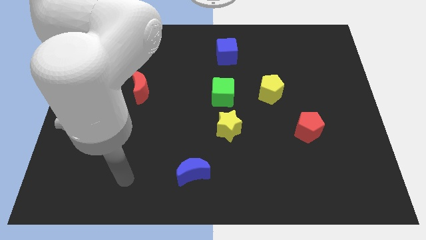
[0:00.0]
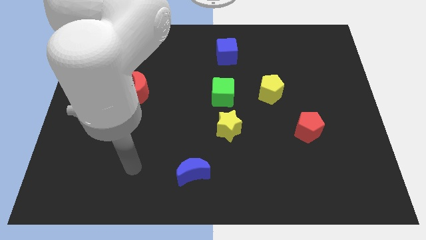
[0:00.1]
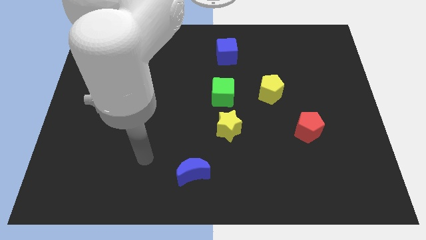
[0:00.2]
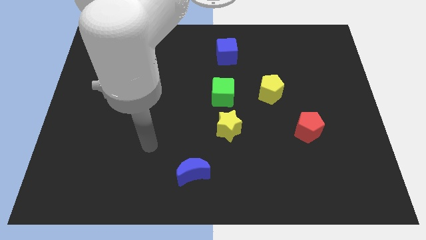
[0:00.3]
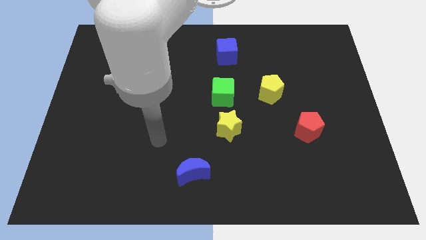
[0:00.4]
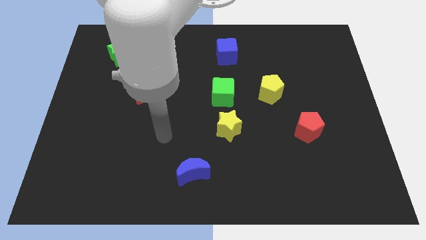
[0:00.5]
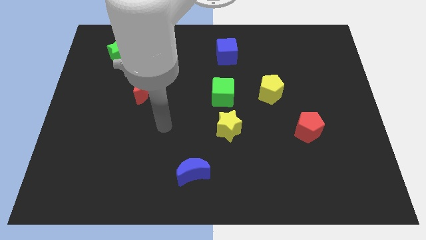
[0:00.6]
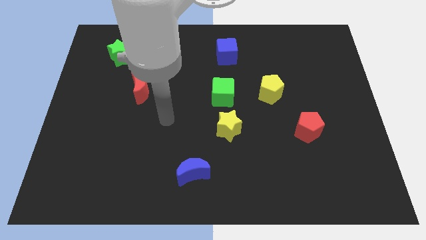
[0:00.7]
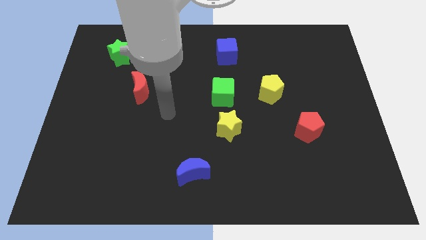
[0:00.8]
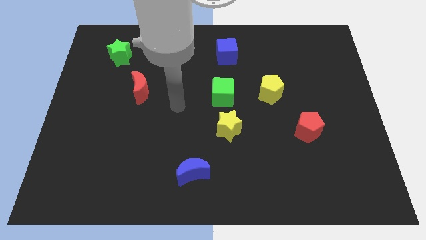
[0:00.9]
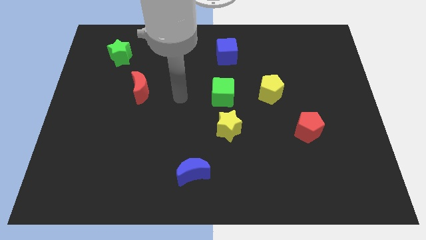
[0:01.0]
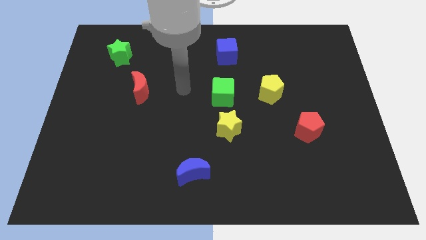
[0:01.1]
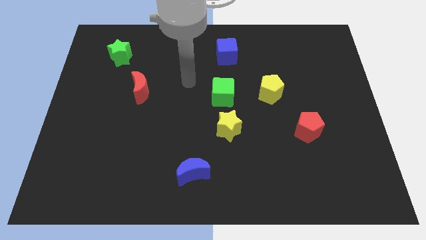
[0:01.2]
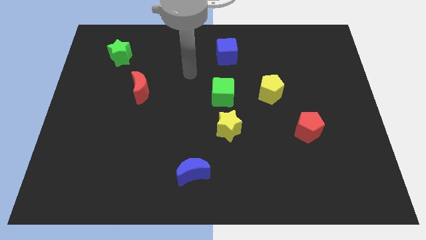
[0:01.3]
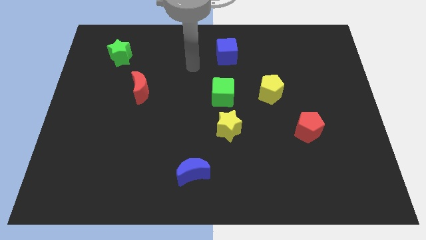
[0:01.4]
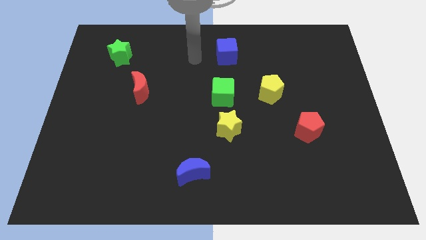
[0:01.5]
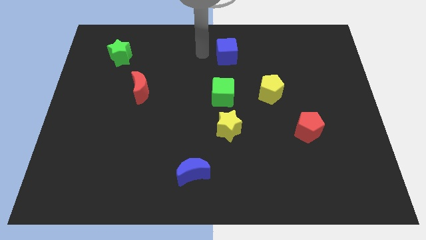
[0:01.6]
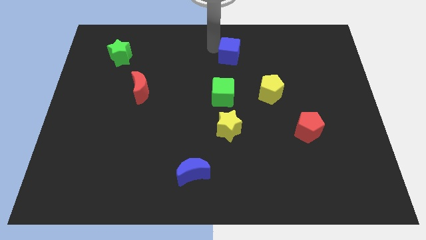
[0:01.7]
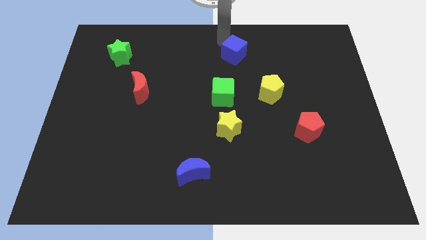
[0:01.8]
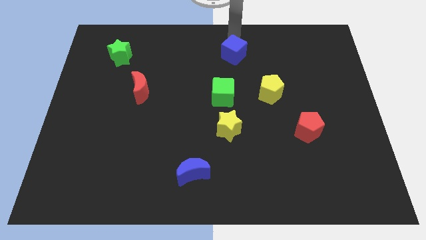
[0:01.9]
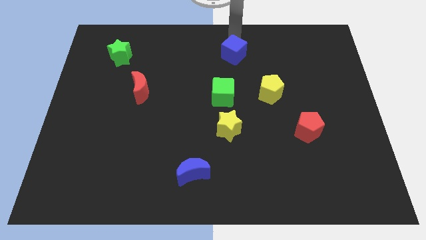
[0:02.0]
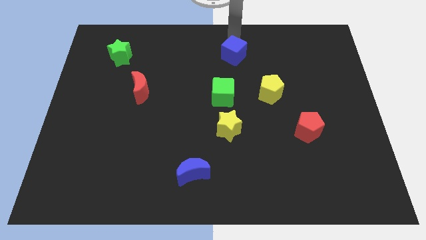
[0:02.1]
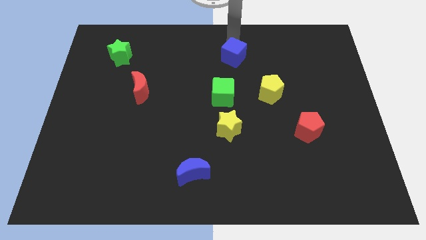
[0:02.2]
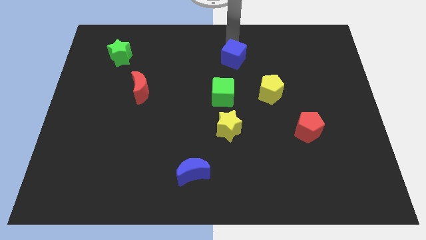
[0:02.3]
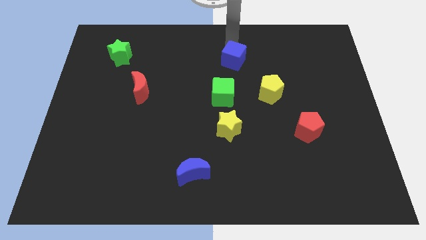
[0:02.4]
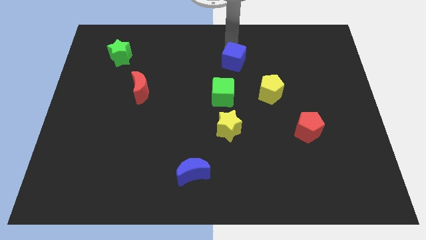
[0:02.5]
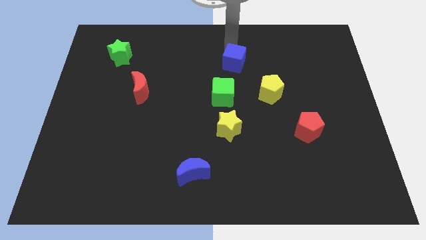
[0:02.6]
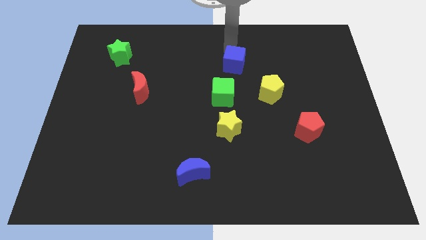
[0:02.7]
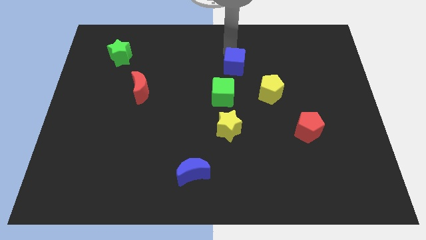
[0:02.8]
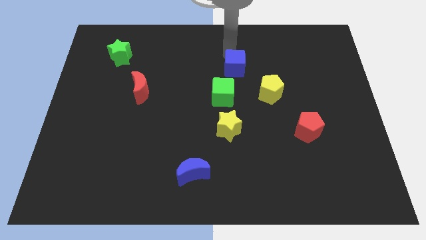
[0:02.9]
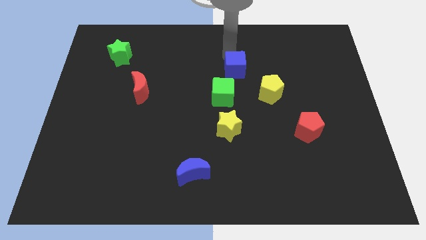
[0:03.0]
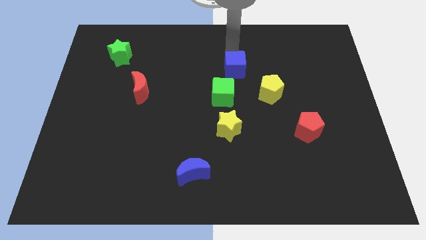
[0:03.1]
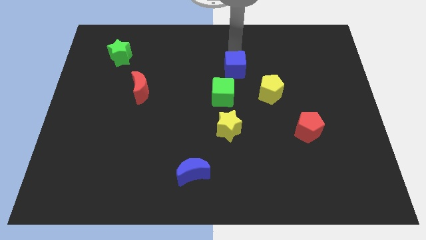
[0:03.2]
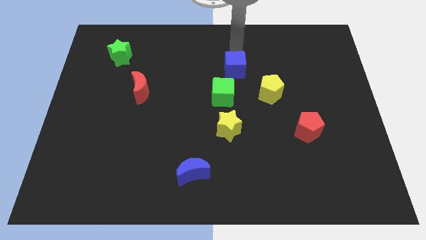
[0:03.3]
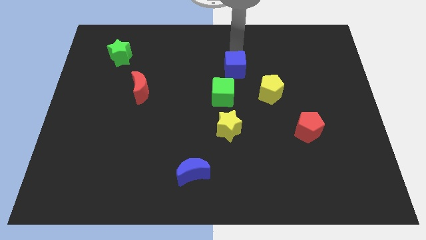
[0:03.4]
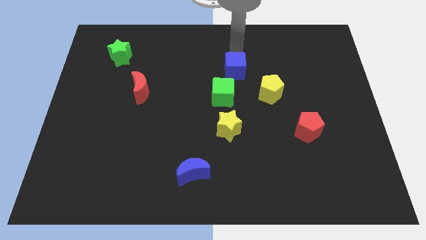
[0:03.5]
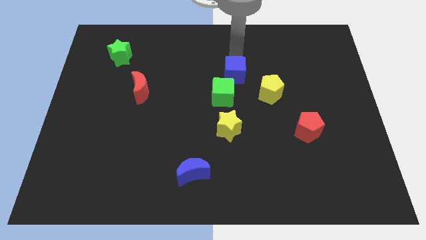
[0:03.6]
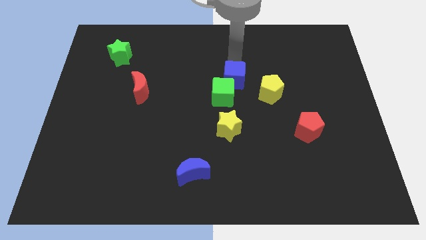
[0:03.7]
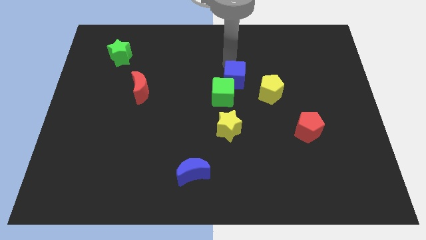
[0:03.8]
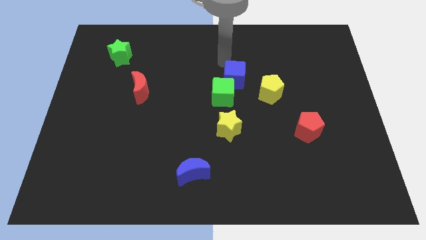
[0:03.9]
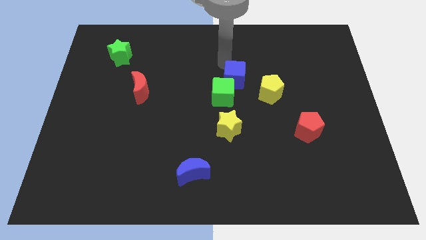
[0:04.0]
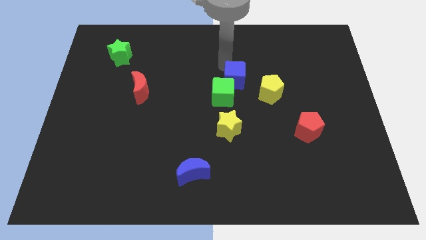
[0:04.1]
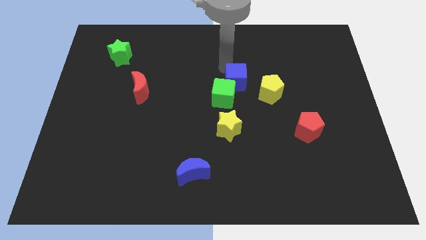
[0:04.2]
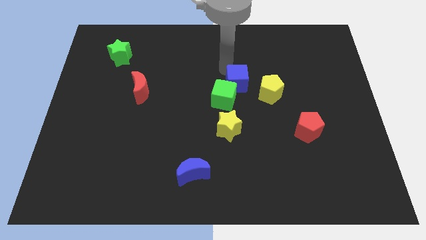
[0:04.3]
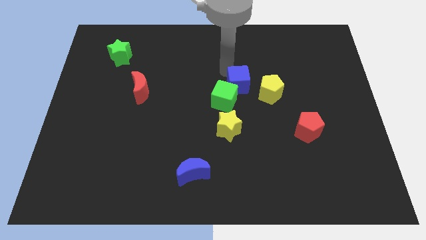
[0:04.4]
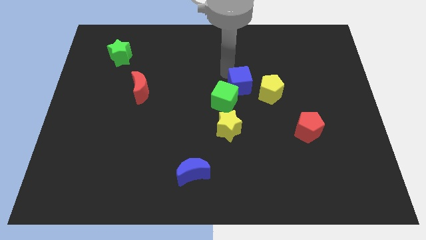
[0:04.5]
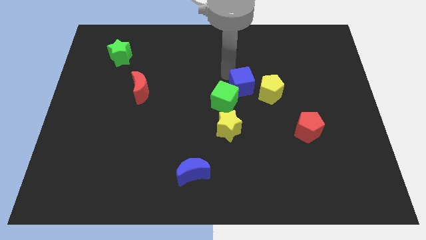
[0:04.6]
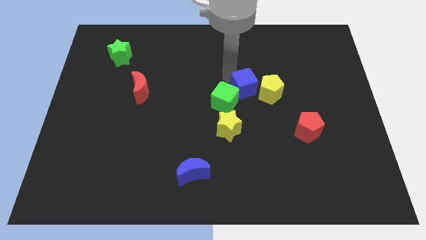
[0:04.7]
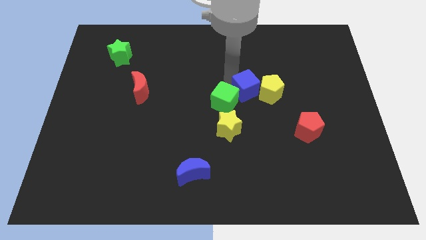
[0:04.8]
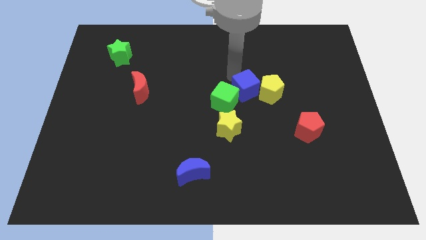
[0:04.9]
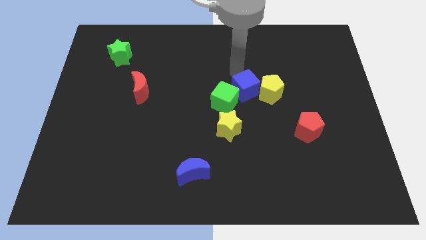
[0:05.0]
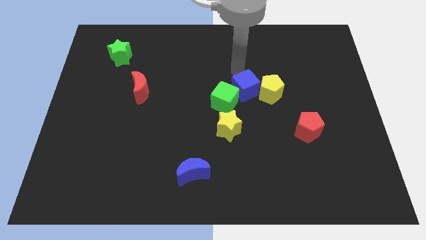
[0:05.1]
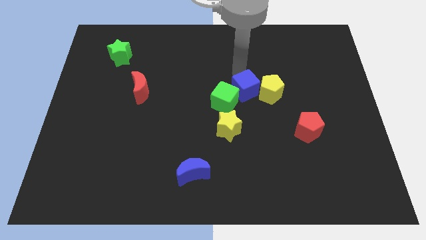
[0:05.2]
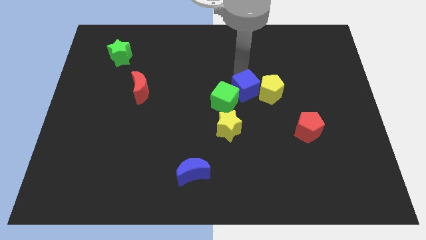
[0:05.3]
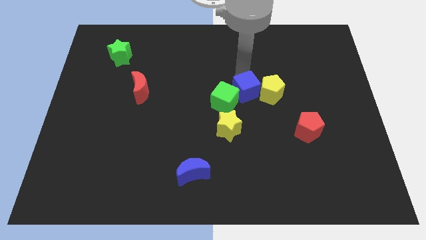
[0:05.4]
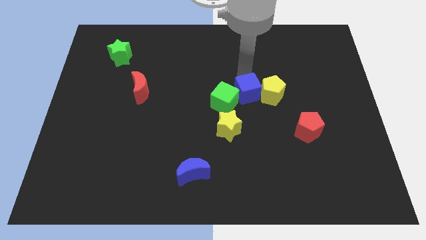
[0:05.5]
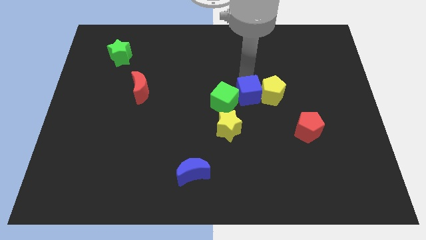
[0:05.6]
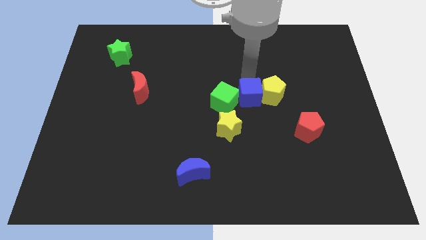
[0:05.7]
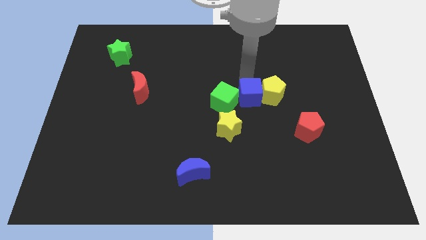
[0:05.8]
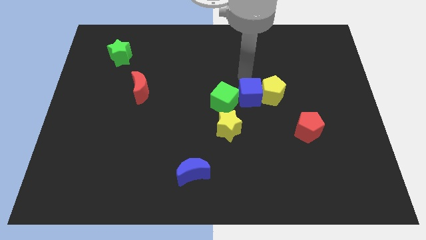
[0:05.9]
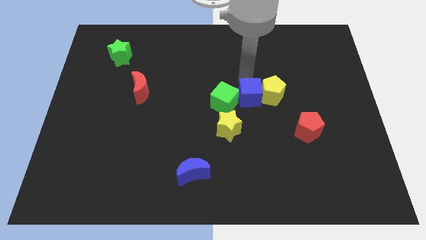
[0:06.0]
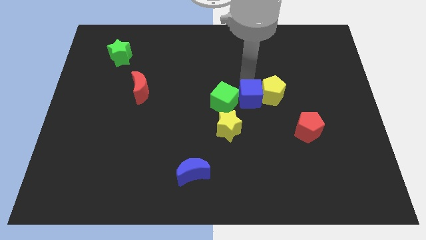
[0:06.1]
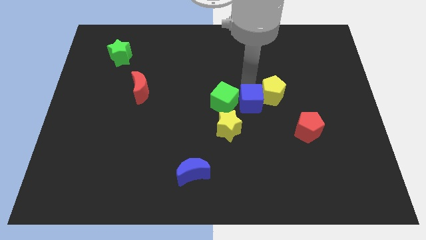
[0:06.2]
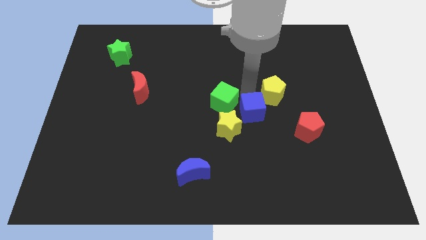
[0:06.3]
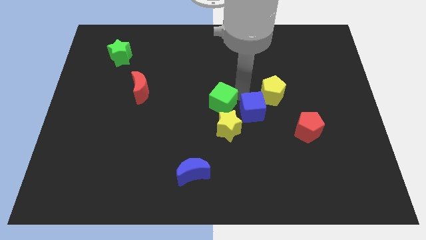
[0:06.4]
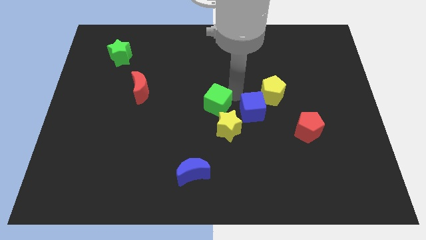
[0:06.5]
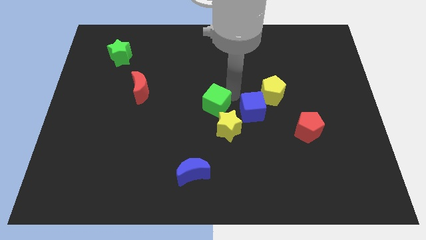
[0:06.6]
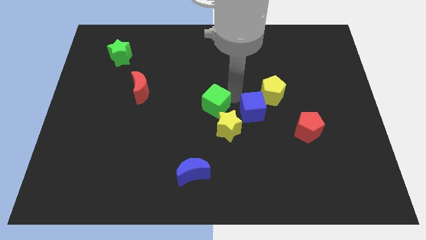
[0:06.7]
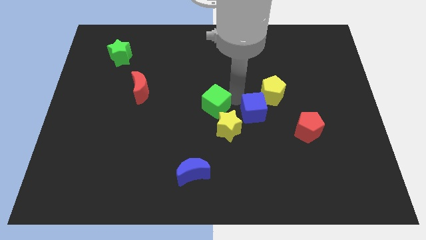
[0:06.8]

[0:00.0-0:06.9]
slide the blue cube right of the yellow star

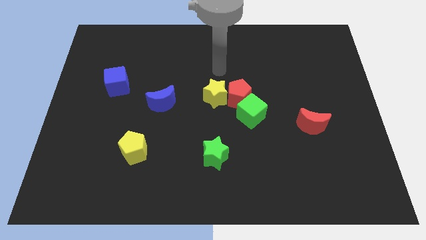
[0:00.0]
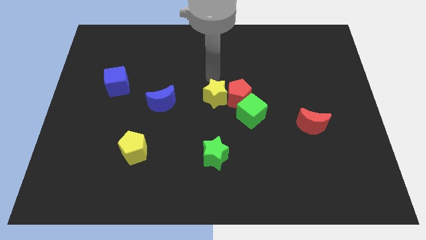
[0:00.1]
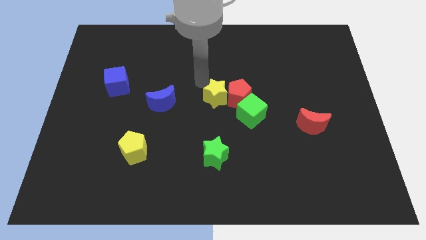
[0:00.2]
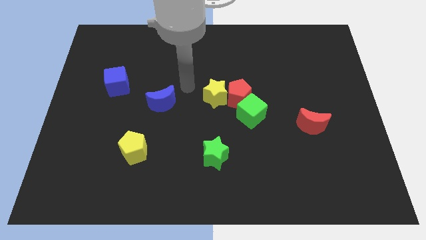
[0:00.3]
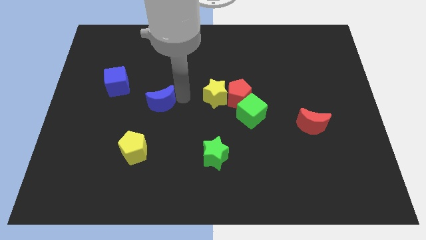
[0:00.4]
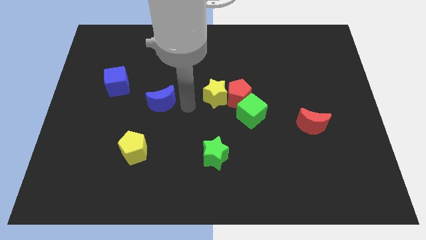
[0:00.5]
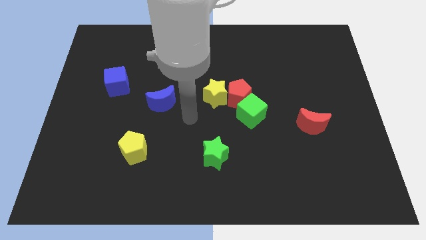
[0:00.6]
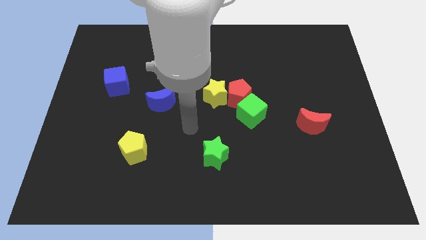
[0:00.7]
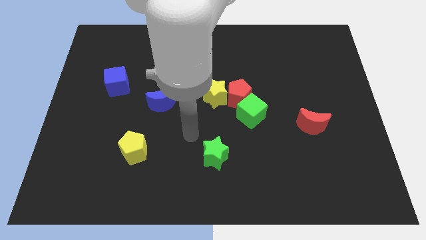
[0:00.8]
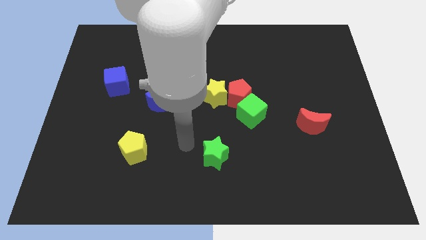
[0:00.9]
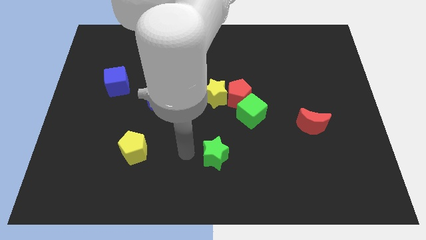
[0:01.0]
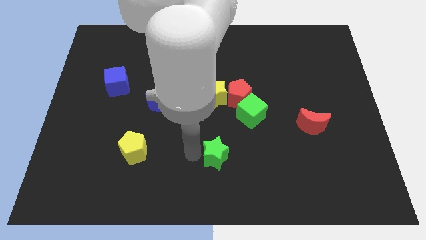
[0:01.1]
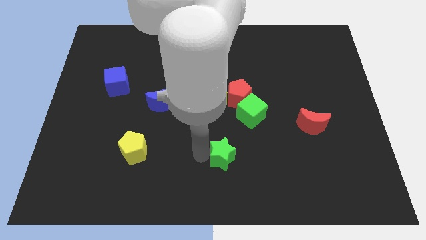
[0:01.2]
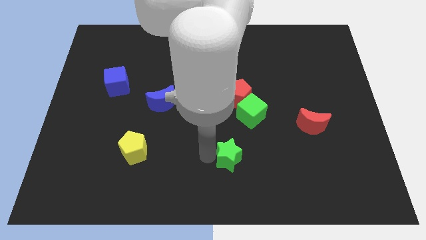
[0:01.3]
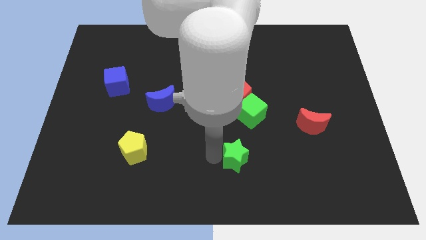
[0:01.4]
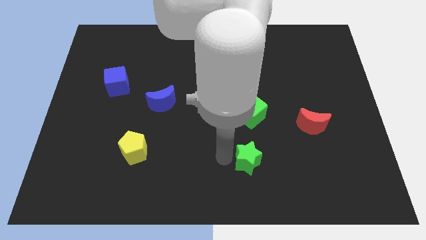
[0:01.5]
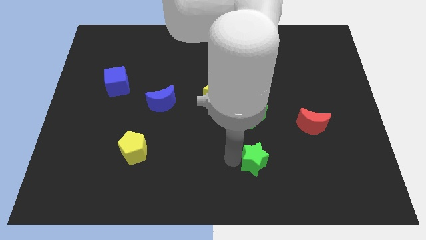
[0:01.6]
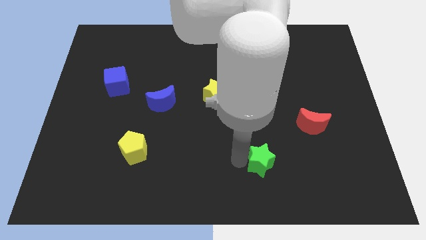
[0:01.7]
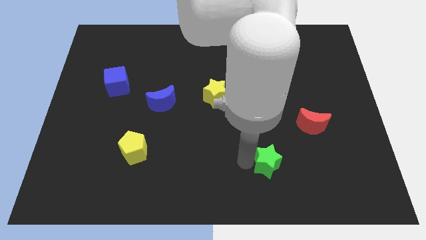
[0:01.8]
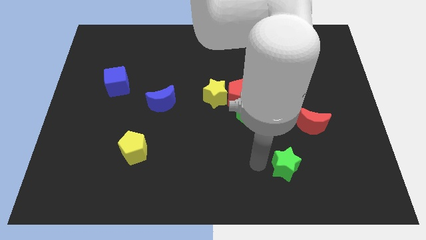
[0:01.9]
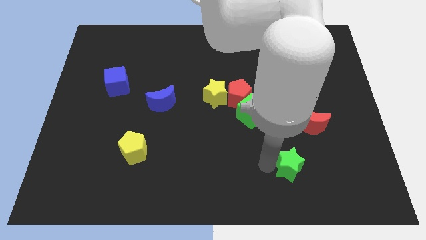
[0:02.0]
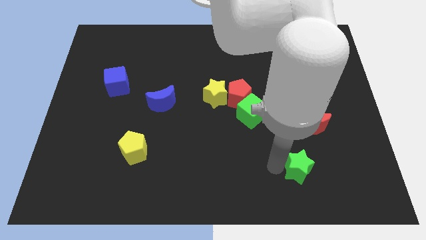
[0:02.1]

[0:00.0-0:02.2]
move the green star to the bottom side of the red moon
